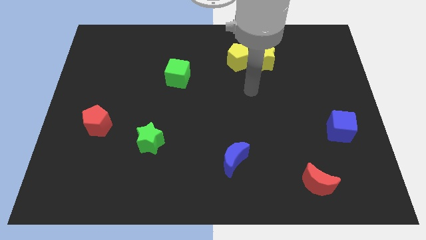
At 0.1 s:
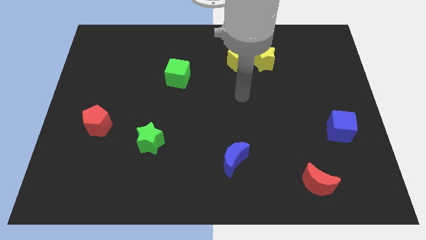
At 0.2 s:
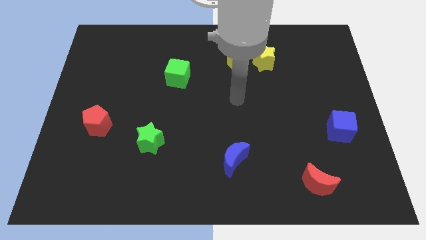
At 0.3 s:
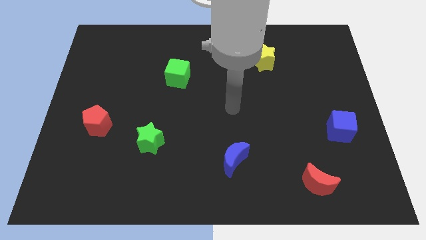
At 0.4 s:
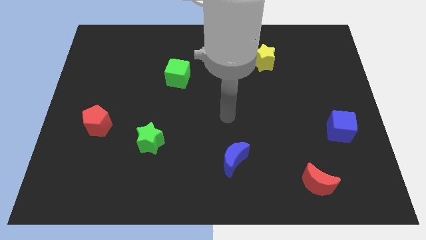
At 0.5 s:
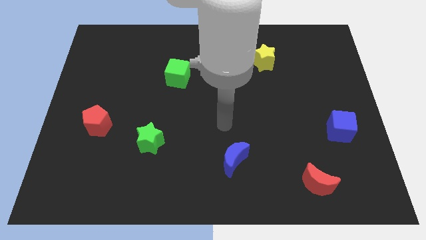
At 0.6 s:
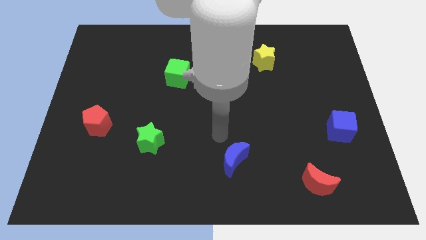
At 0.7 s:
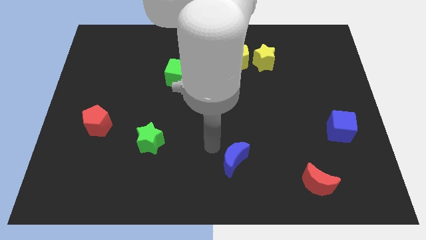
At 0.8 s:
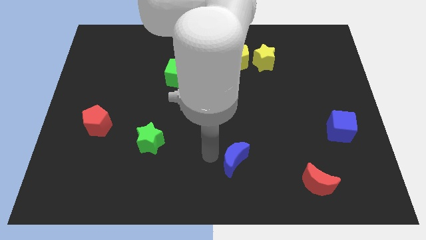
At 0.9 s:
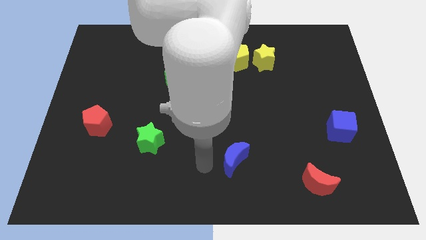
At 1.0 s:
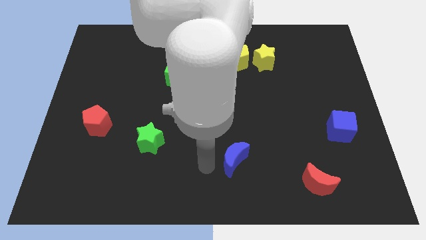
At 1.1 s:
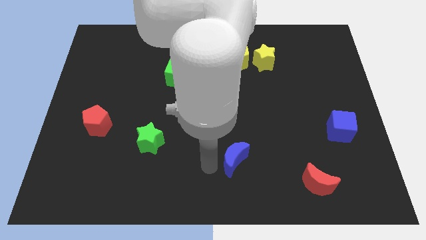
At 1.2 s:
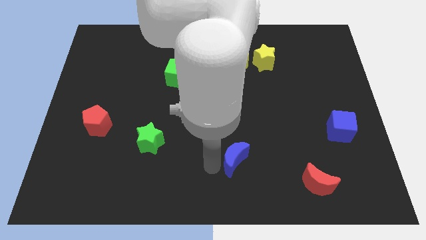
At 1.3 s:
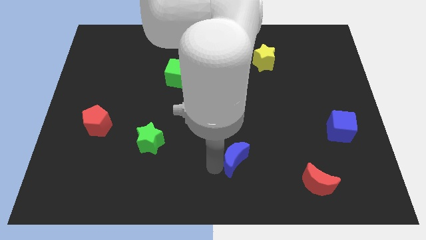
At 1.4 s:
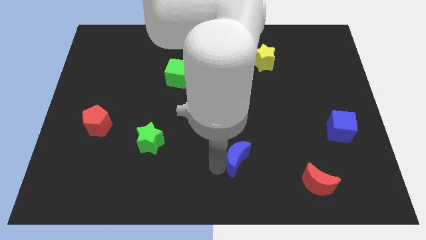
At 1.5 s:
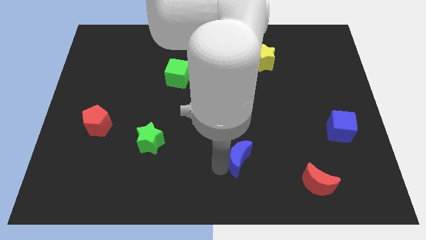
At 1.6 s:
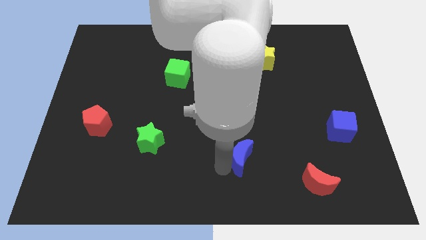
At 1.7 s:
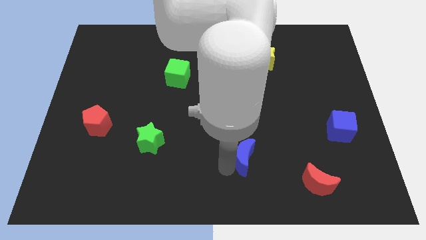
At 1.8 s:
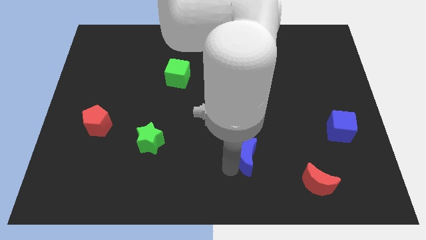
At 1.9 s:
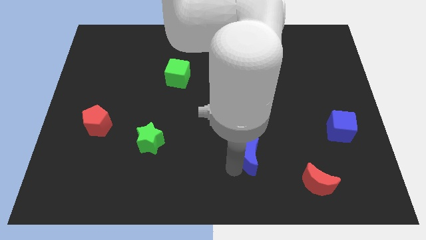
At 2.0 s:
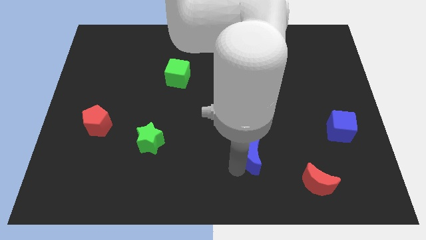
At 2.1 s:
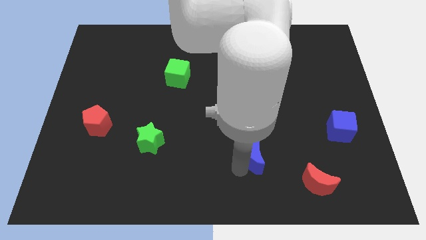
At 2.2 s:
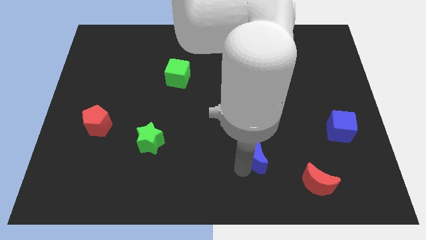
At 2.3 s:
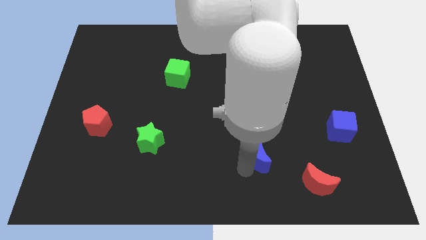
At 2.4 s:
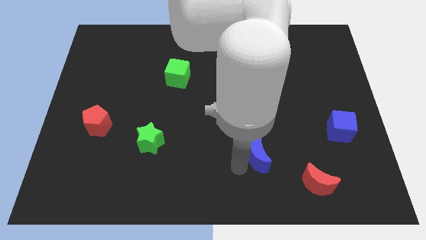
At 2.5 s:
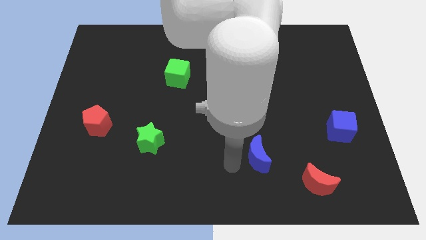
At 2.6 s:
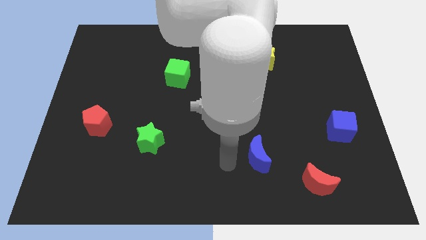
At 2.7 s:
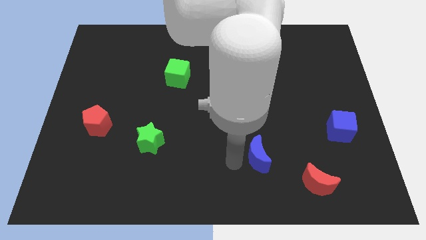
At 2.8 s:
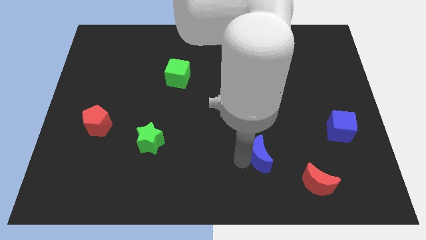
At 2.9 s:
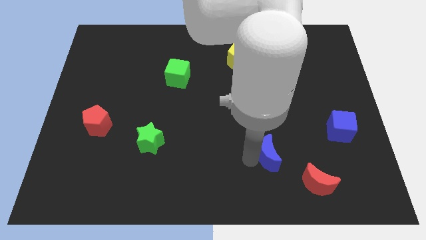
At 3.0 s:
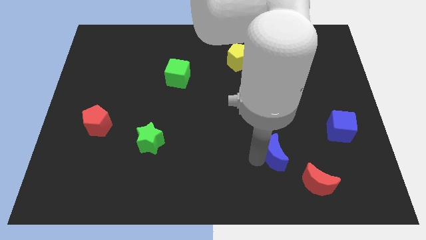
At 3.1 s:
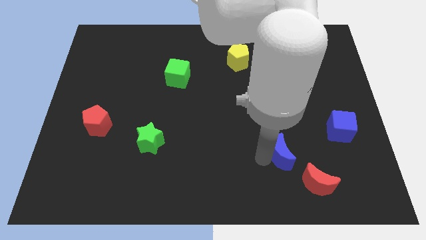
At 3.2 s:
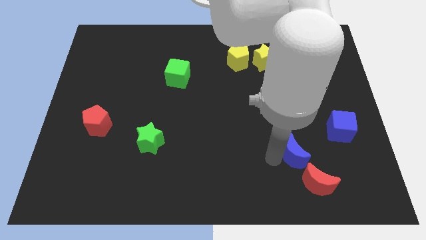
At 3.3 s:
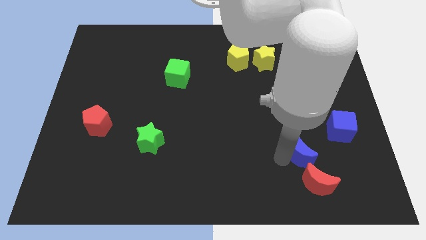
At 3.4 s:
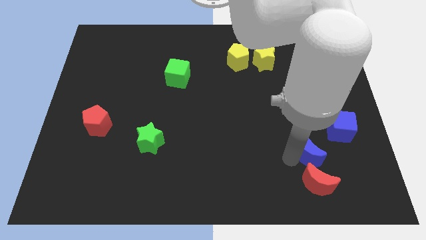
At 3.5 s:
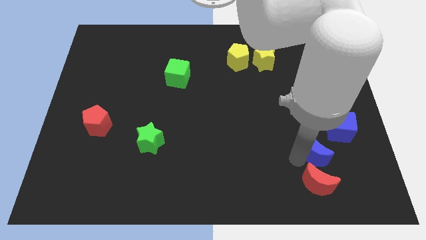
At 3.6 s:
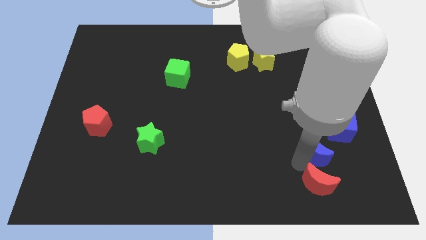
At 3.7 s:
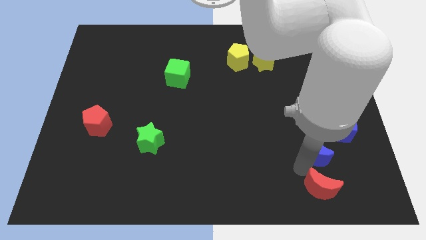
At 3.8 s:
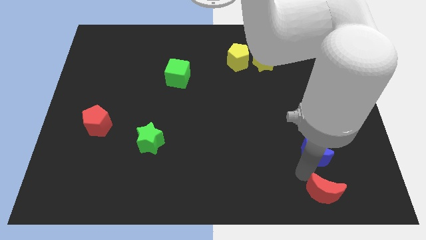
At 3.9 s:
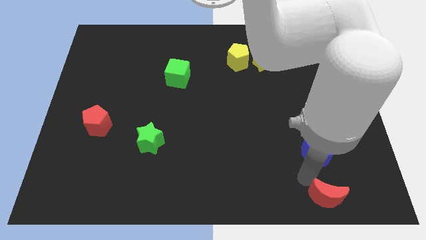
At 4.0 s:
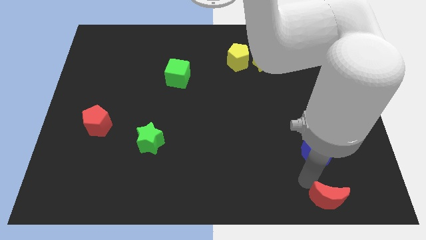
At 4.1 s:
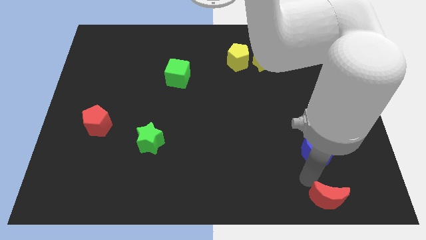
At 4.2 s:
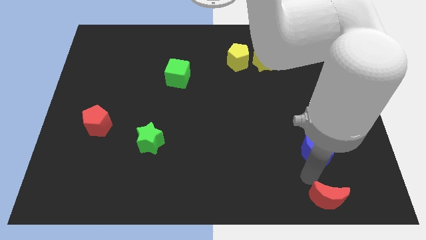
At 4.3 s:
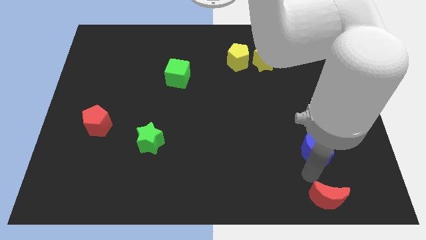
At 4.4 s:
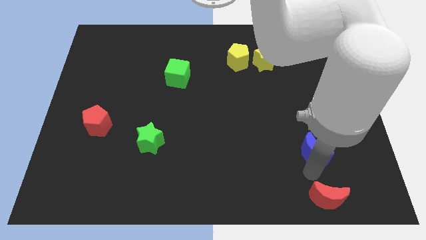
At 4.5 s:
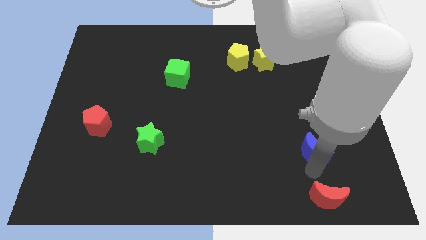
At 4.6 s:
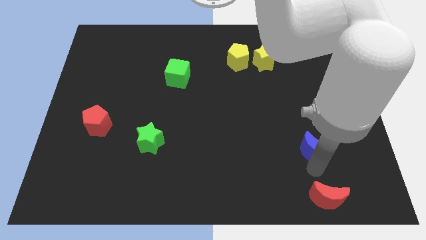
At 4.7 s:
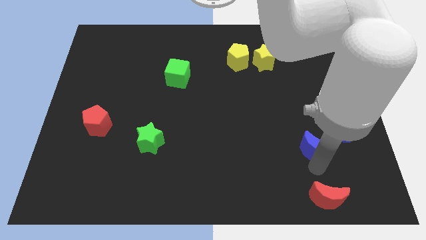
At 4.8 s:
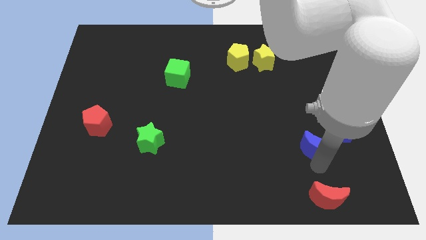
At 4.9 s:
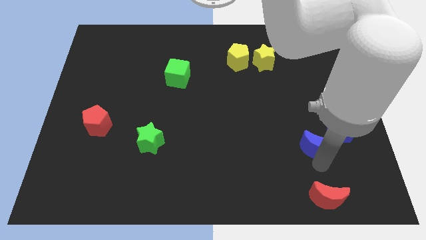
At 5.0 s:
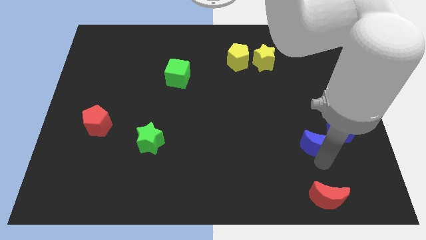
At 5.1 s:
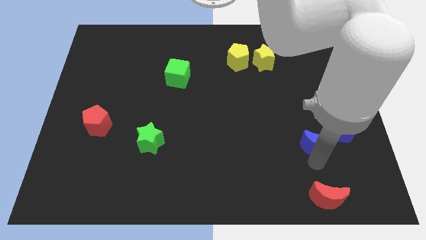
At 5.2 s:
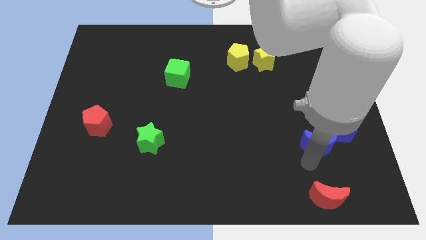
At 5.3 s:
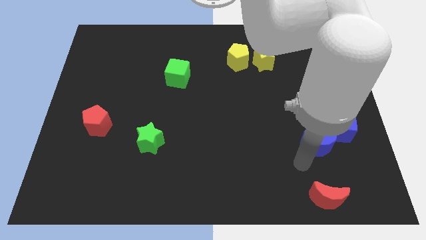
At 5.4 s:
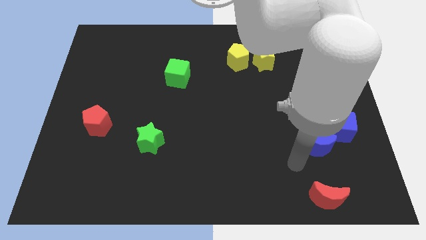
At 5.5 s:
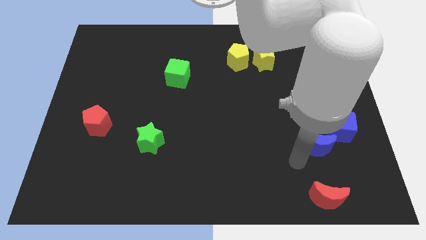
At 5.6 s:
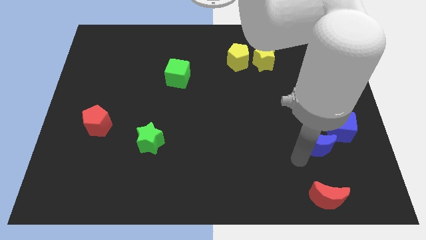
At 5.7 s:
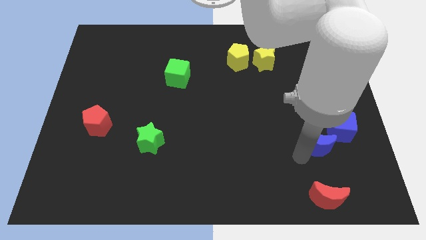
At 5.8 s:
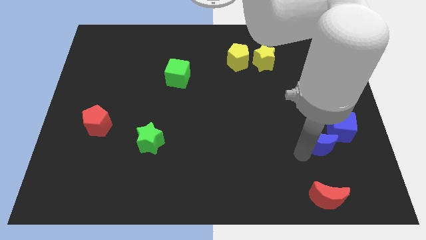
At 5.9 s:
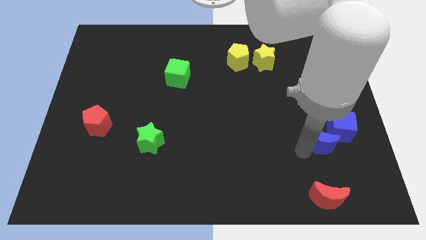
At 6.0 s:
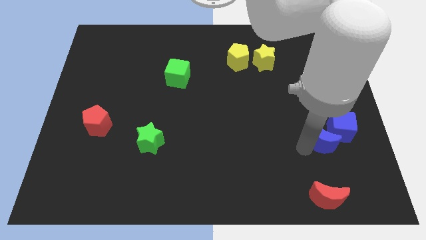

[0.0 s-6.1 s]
slide the blue moon to the blue cube

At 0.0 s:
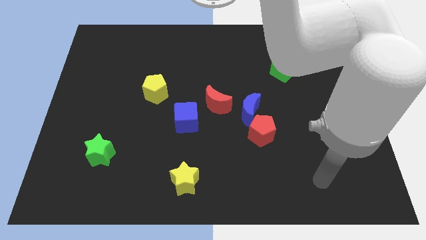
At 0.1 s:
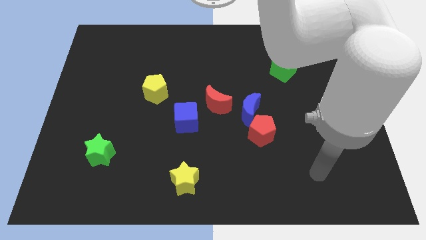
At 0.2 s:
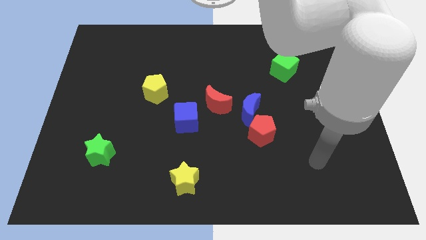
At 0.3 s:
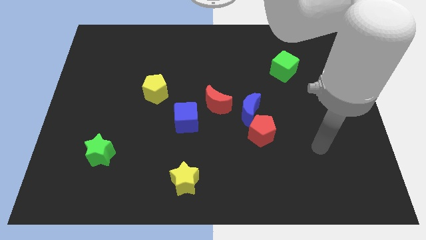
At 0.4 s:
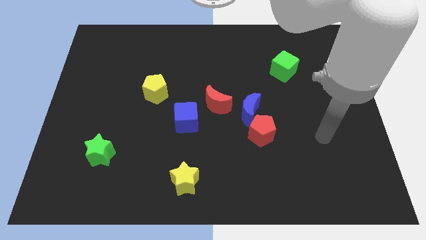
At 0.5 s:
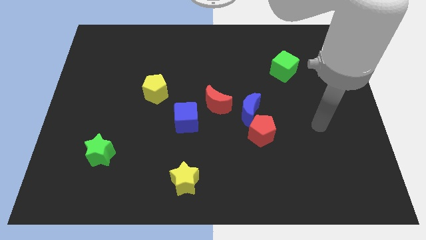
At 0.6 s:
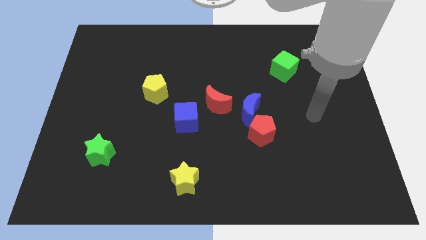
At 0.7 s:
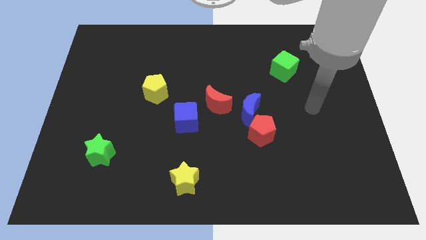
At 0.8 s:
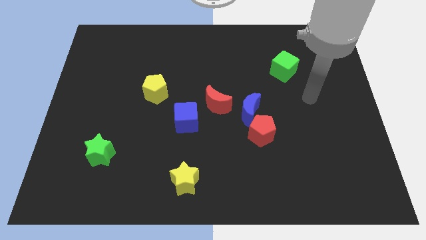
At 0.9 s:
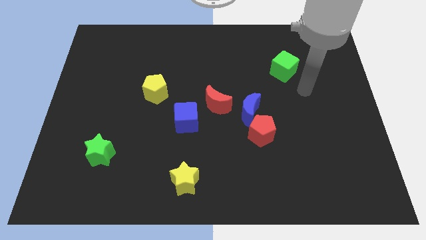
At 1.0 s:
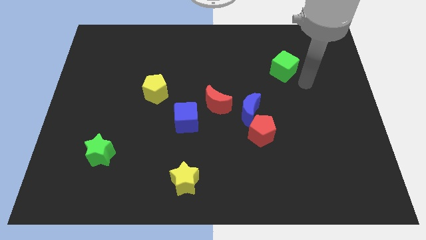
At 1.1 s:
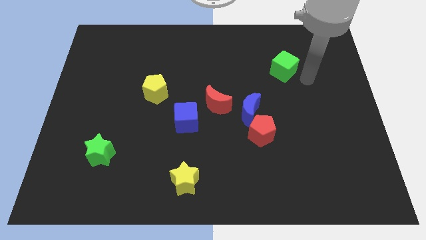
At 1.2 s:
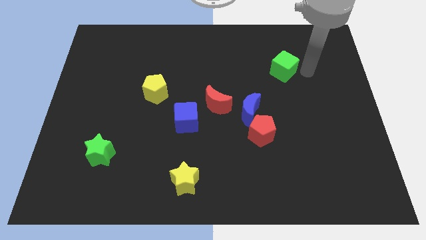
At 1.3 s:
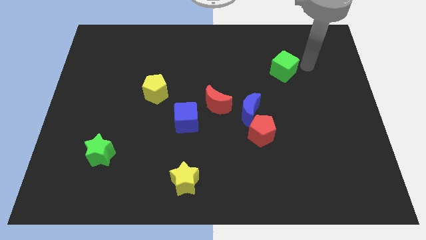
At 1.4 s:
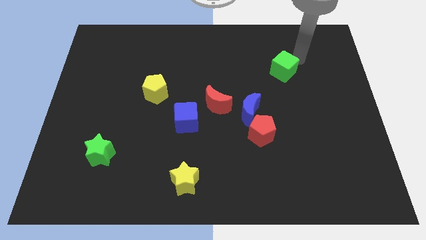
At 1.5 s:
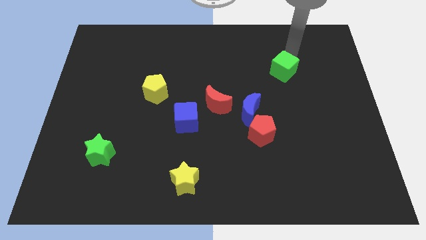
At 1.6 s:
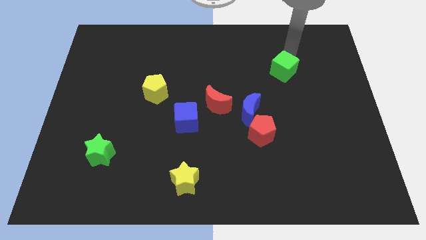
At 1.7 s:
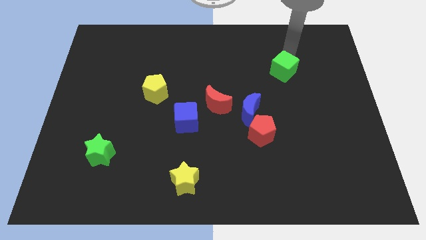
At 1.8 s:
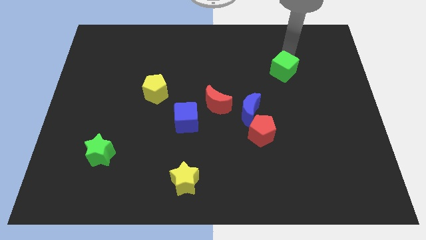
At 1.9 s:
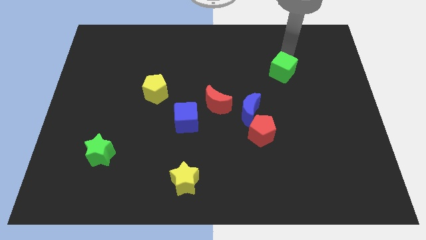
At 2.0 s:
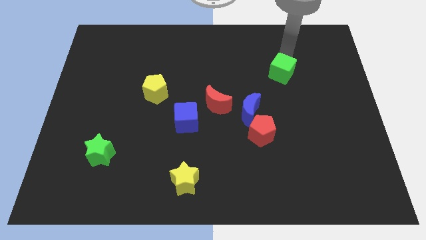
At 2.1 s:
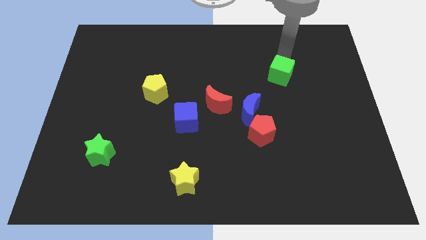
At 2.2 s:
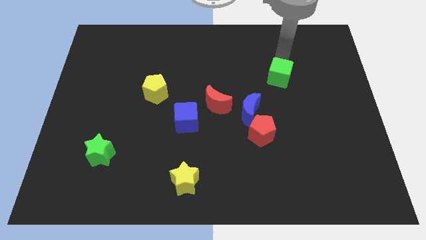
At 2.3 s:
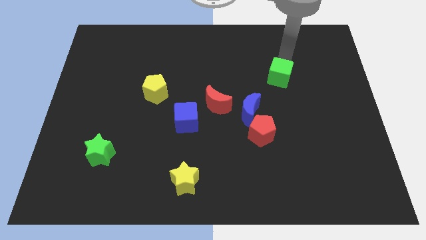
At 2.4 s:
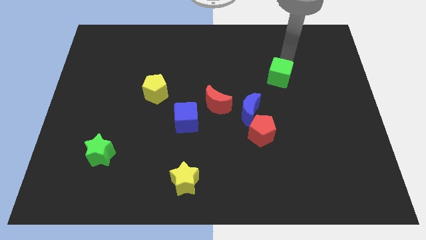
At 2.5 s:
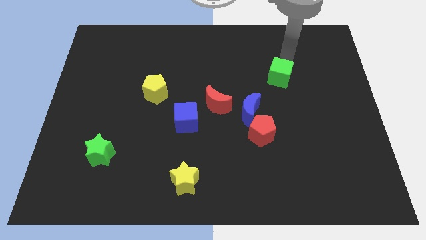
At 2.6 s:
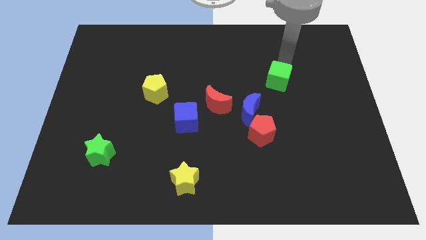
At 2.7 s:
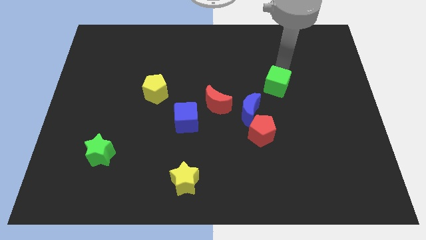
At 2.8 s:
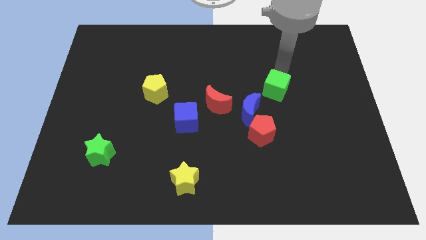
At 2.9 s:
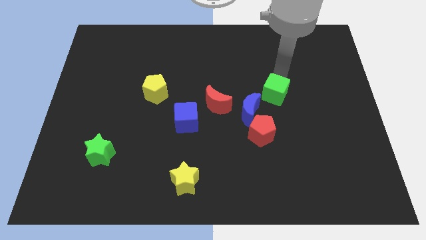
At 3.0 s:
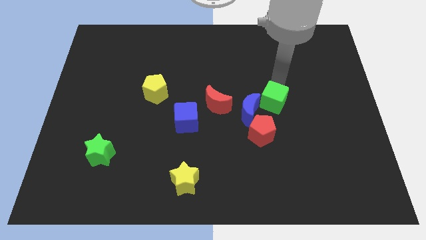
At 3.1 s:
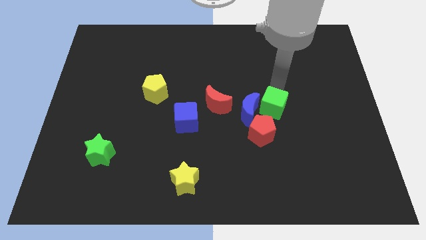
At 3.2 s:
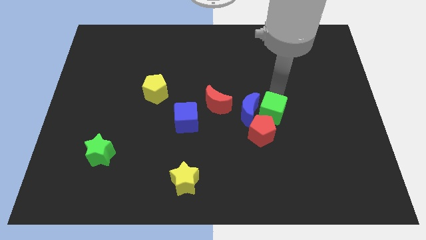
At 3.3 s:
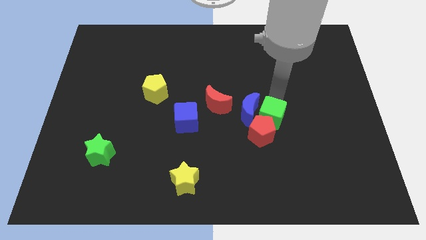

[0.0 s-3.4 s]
push the green cube close to the red pentagon
